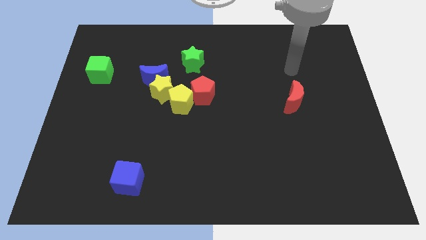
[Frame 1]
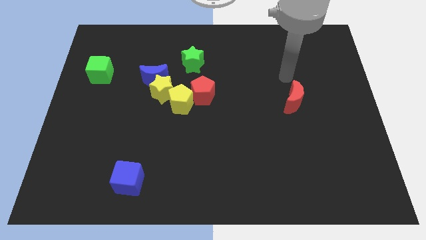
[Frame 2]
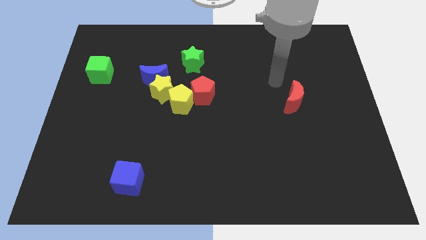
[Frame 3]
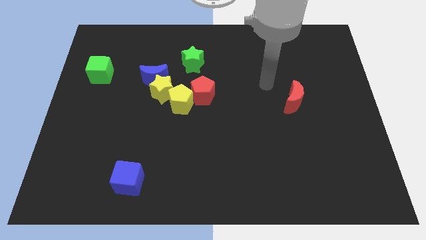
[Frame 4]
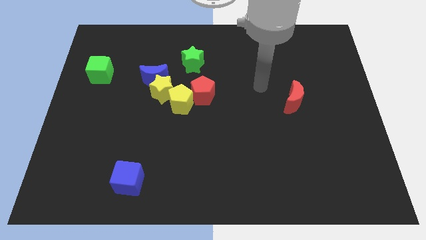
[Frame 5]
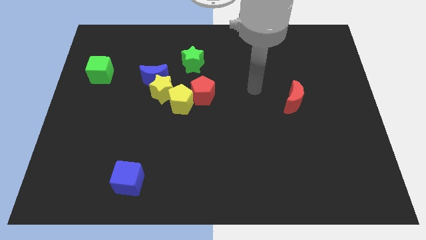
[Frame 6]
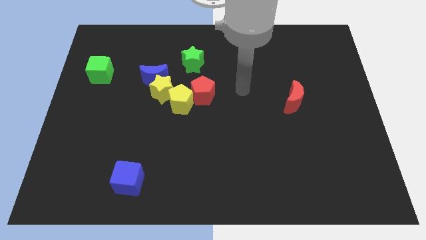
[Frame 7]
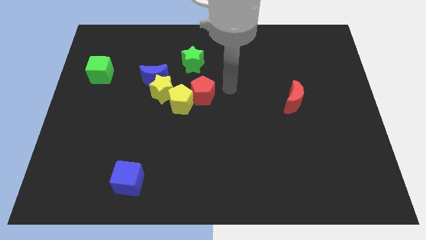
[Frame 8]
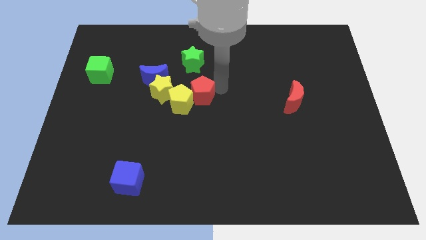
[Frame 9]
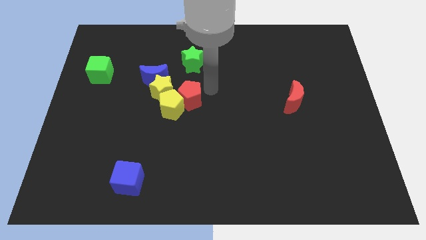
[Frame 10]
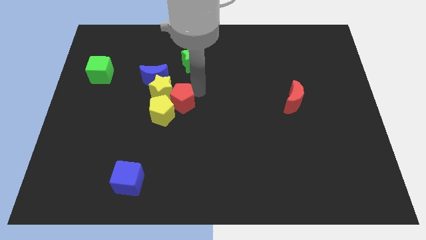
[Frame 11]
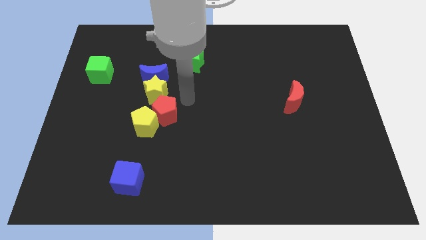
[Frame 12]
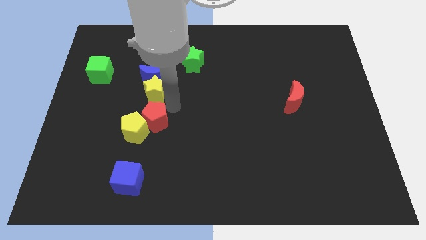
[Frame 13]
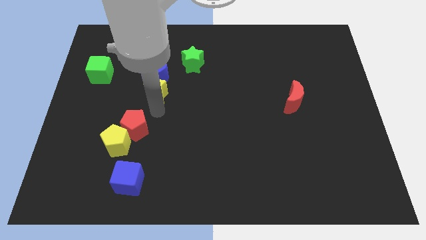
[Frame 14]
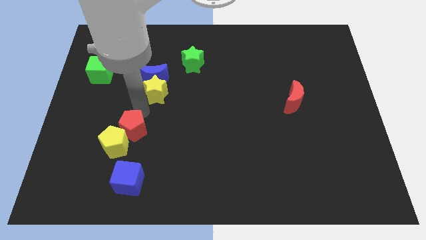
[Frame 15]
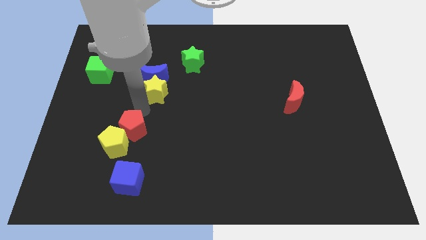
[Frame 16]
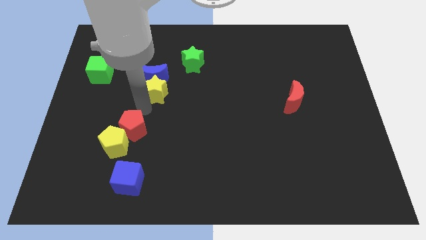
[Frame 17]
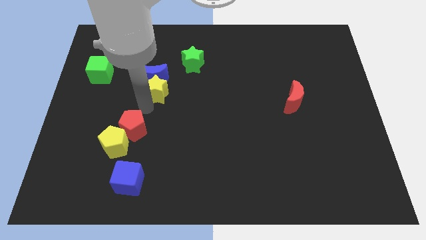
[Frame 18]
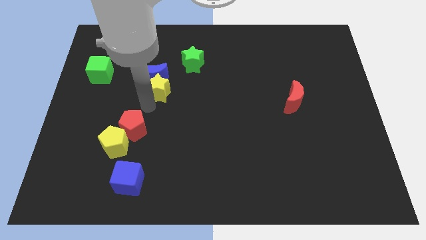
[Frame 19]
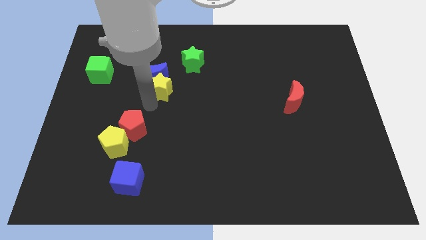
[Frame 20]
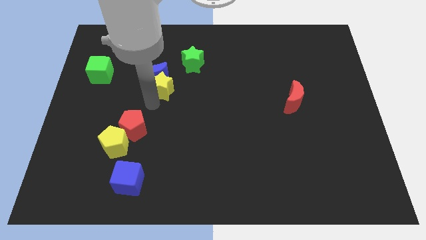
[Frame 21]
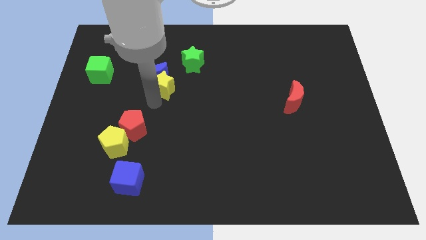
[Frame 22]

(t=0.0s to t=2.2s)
pull the yellow star apart from the group of blocks

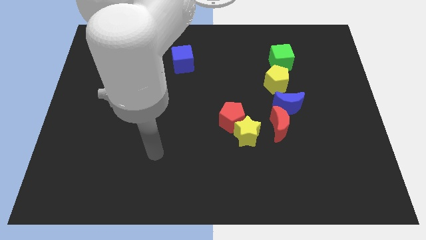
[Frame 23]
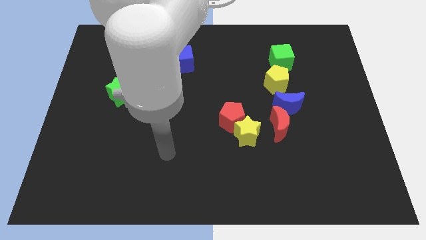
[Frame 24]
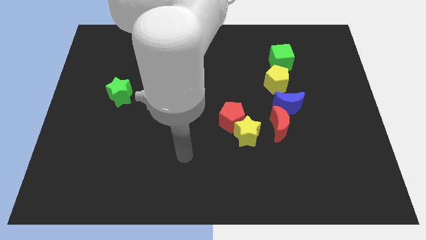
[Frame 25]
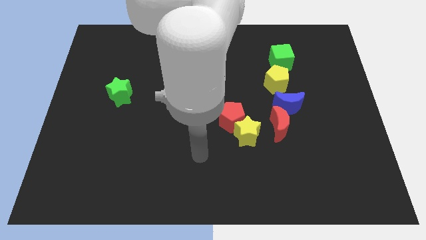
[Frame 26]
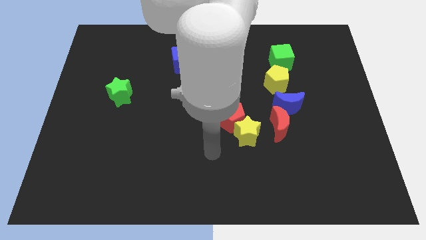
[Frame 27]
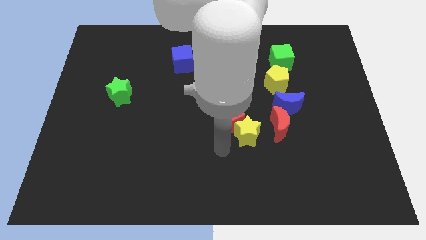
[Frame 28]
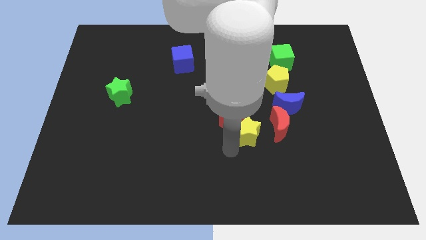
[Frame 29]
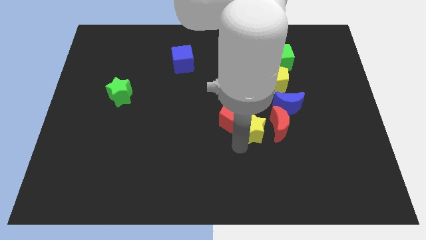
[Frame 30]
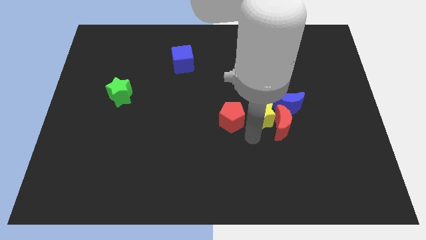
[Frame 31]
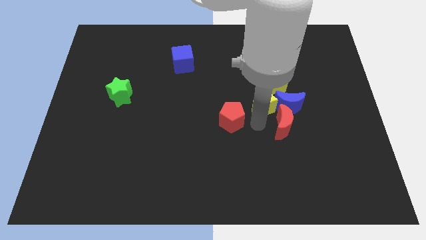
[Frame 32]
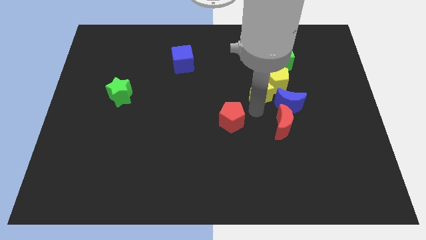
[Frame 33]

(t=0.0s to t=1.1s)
separate the red pentagon from the yellow star

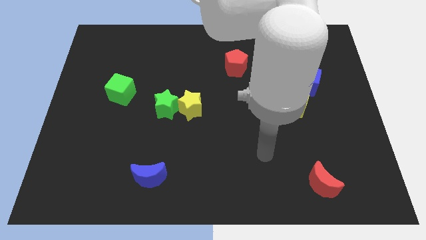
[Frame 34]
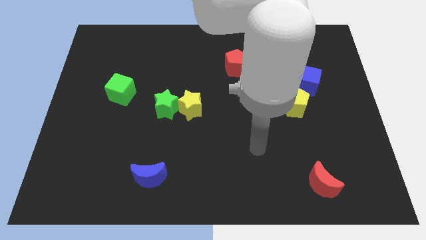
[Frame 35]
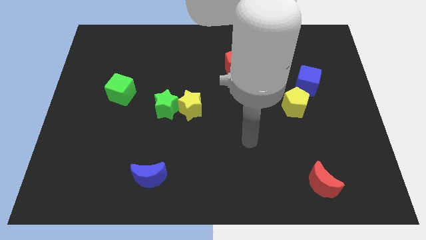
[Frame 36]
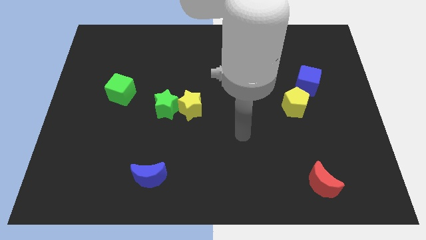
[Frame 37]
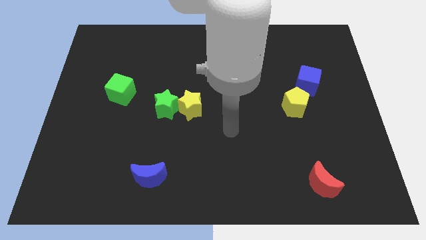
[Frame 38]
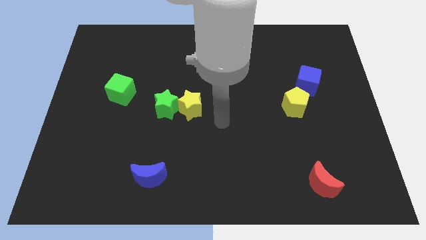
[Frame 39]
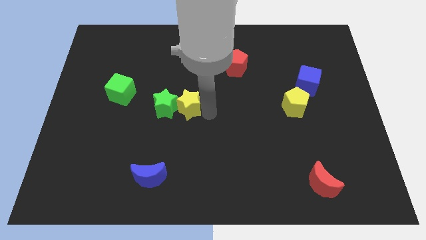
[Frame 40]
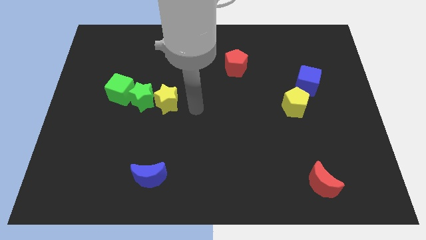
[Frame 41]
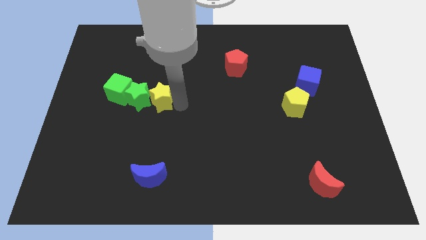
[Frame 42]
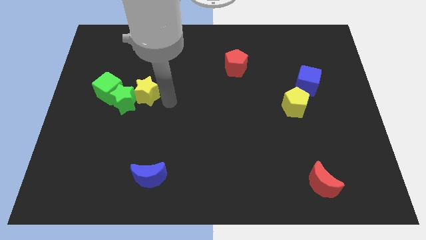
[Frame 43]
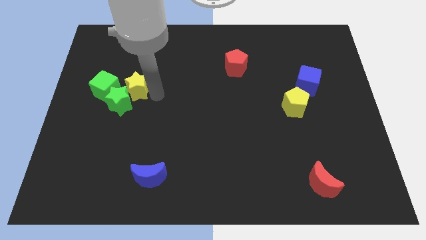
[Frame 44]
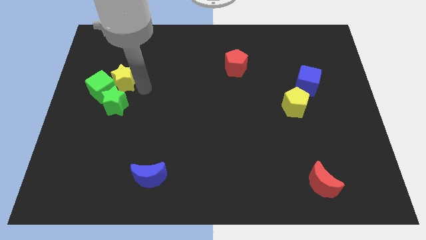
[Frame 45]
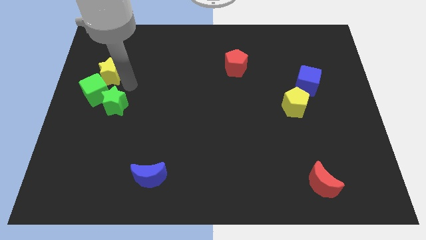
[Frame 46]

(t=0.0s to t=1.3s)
move the green star away from the yellow star

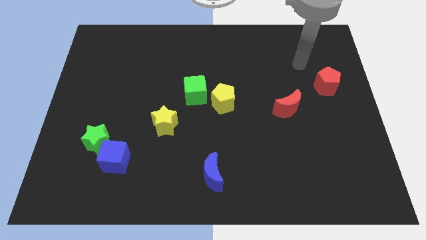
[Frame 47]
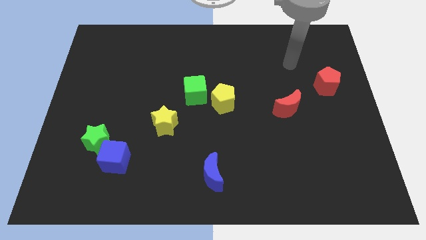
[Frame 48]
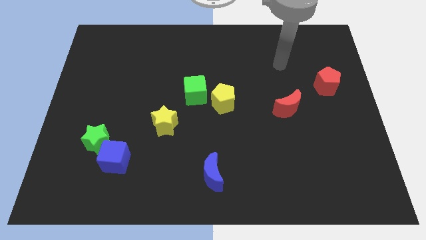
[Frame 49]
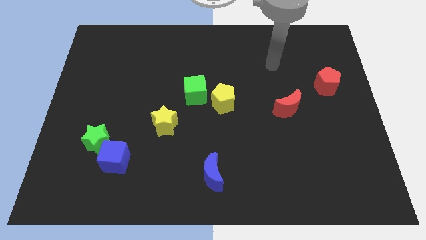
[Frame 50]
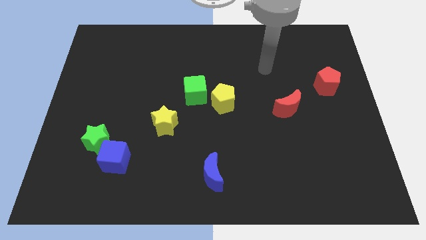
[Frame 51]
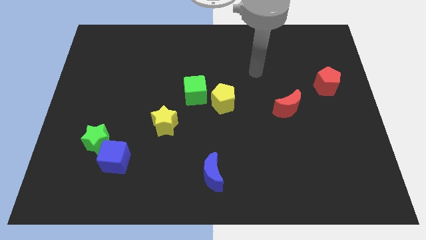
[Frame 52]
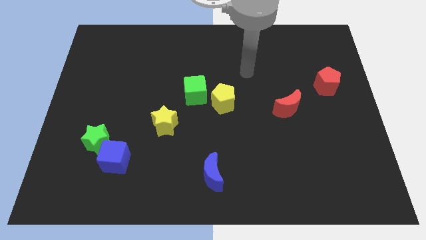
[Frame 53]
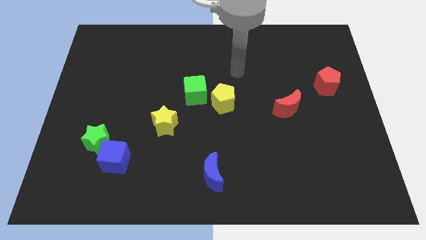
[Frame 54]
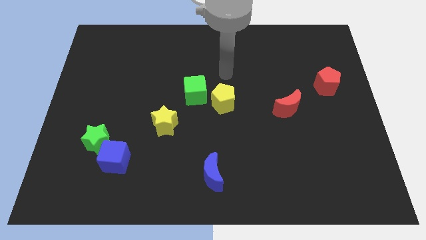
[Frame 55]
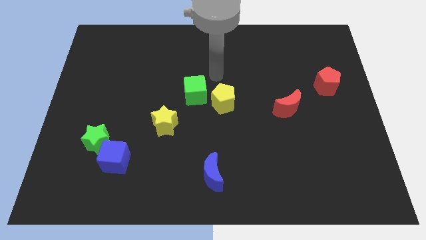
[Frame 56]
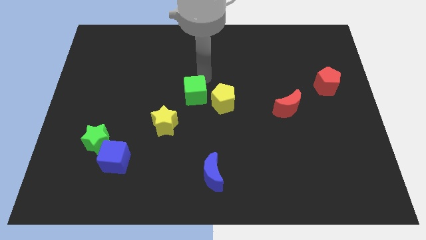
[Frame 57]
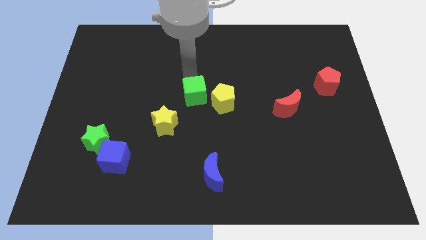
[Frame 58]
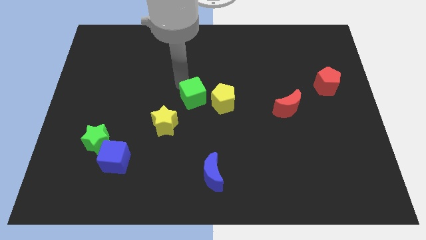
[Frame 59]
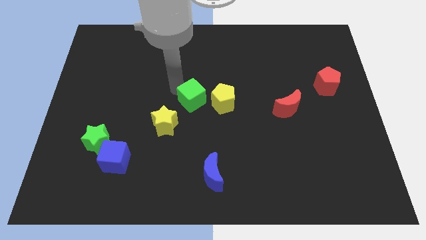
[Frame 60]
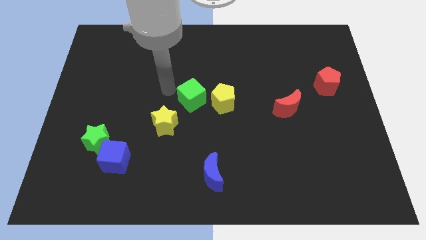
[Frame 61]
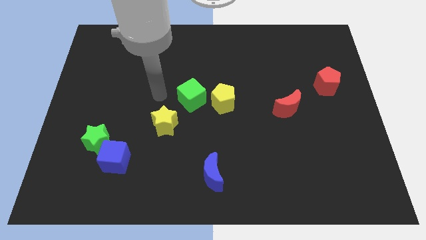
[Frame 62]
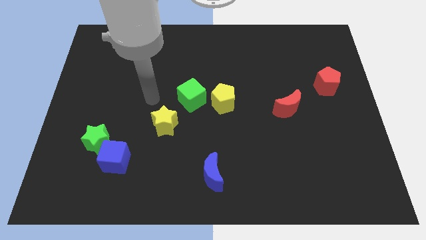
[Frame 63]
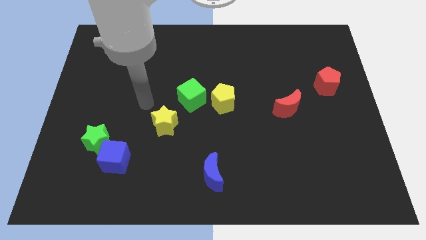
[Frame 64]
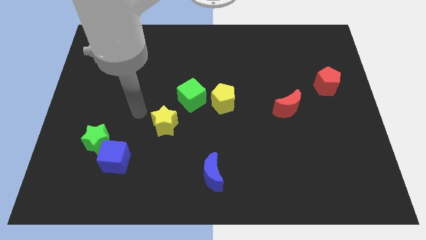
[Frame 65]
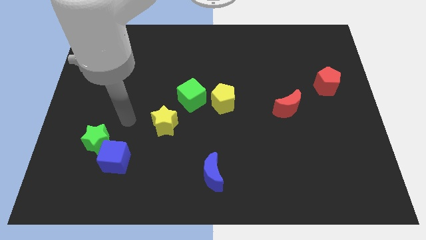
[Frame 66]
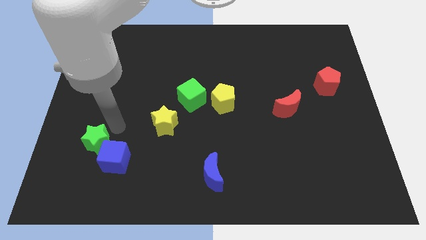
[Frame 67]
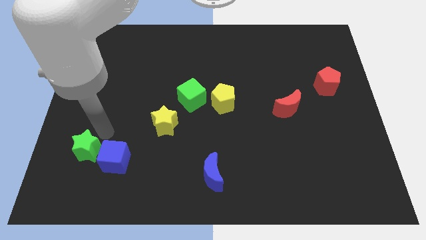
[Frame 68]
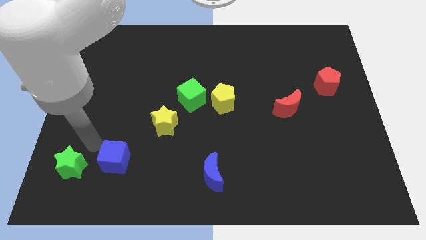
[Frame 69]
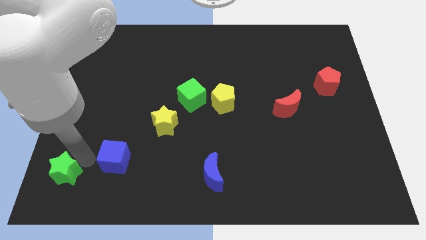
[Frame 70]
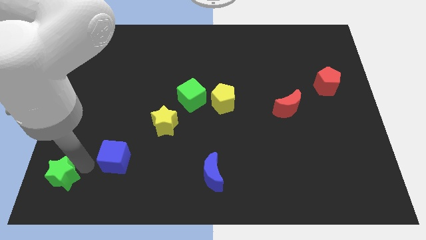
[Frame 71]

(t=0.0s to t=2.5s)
pull the blue cube apart from the green star

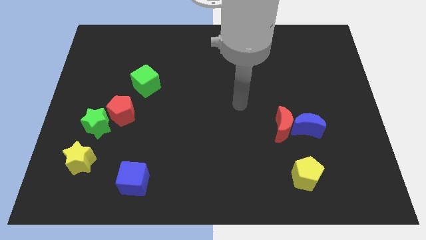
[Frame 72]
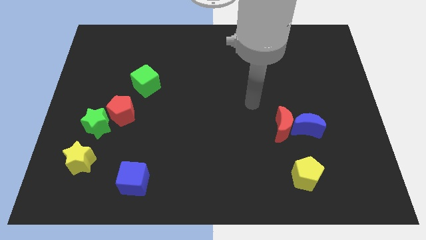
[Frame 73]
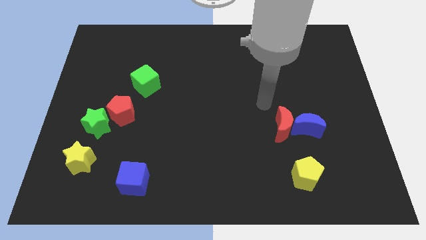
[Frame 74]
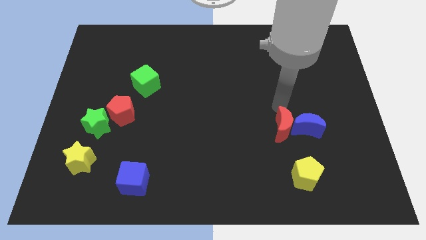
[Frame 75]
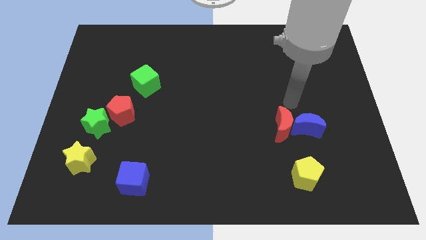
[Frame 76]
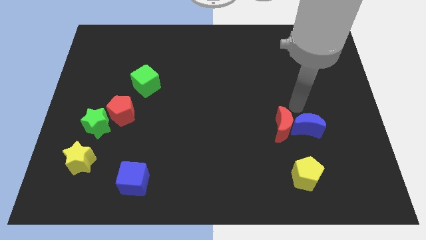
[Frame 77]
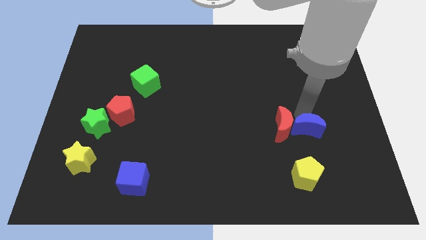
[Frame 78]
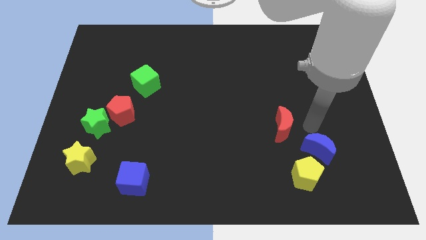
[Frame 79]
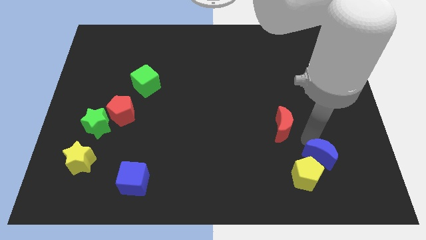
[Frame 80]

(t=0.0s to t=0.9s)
pull the red moon apart from the blue moon

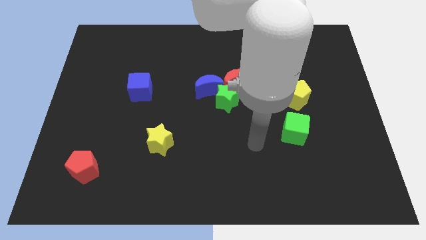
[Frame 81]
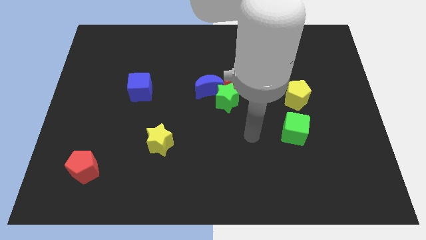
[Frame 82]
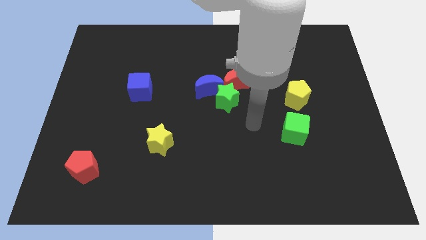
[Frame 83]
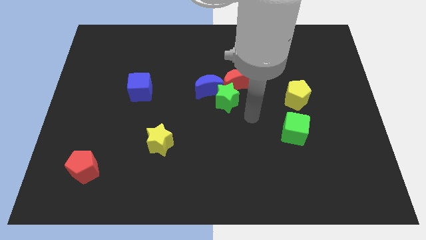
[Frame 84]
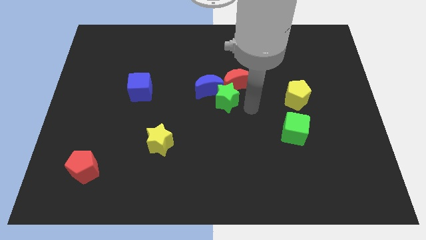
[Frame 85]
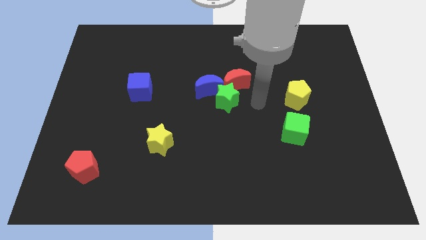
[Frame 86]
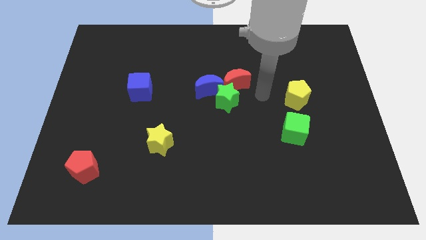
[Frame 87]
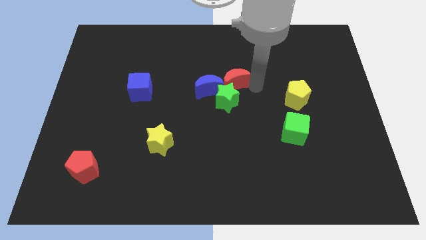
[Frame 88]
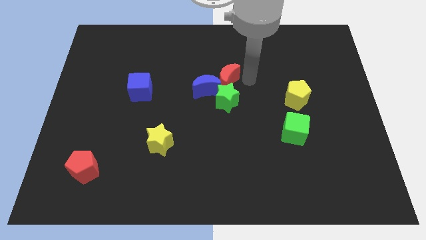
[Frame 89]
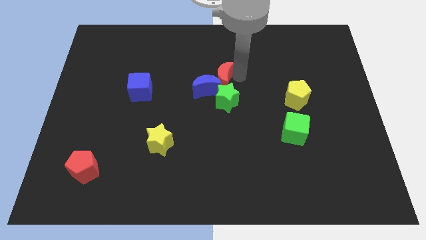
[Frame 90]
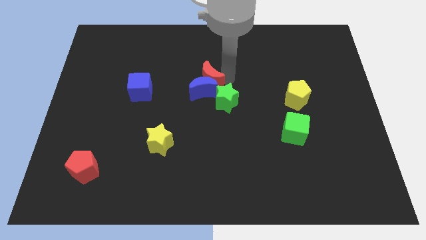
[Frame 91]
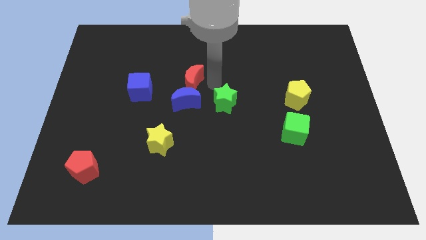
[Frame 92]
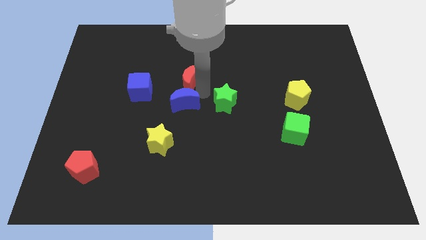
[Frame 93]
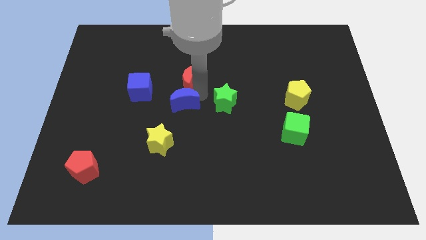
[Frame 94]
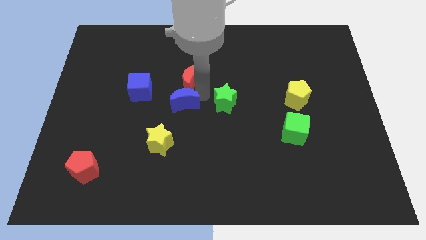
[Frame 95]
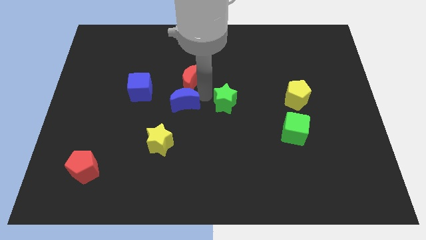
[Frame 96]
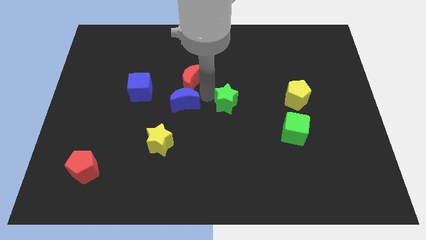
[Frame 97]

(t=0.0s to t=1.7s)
separate the green star from the red moon and blue moon
